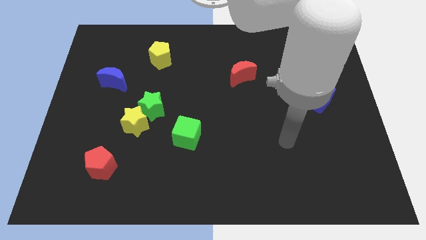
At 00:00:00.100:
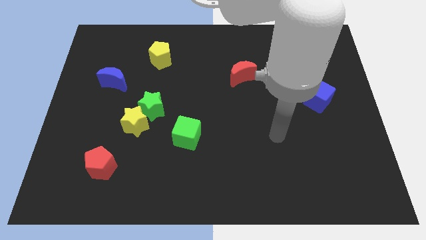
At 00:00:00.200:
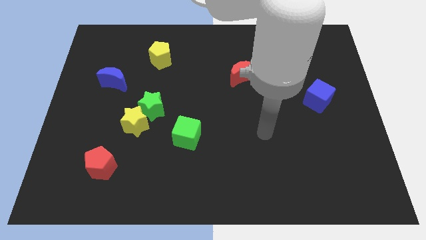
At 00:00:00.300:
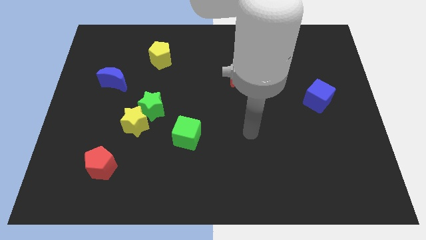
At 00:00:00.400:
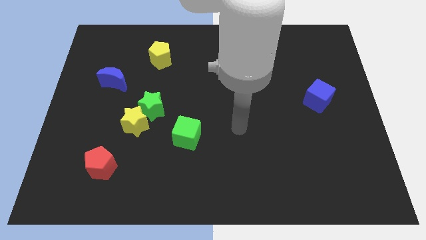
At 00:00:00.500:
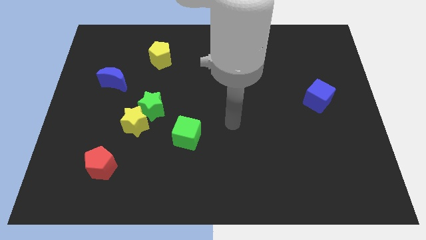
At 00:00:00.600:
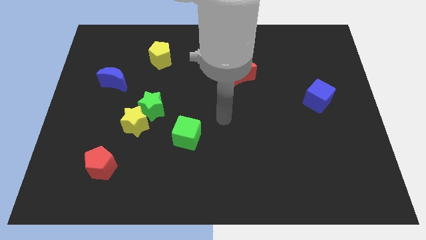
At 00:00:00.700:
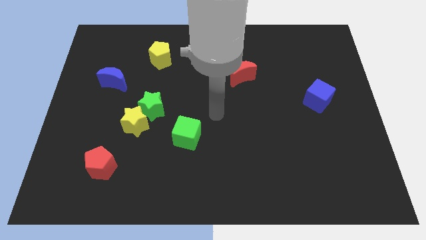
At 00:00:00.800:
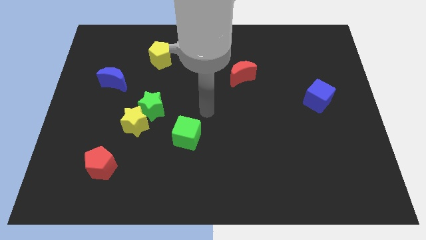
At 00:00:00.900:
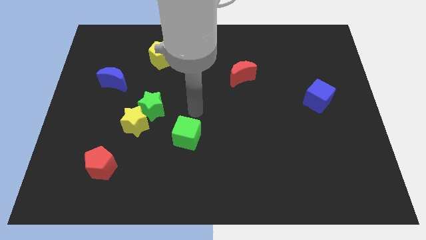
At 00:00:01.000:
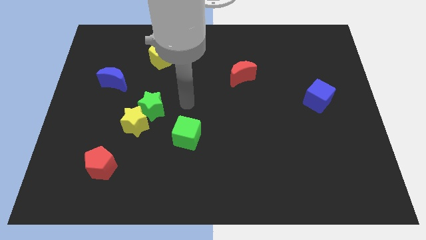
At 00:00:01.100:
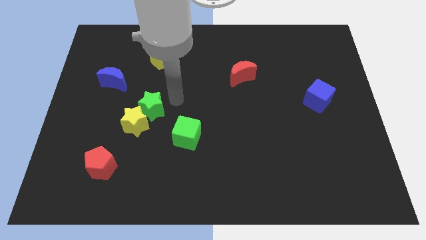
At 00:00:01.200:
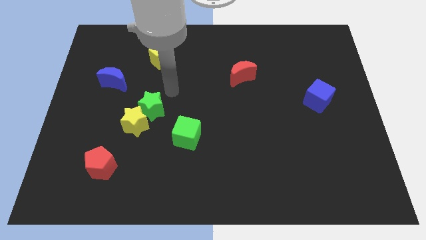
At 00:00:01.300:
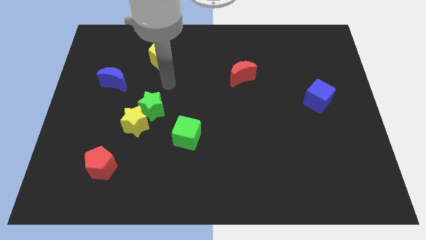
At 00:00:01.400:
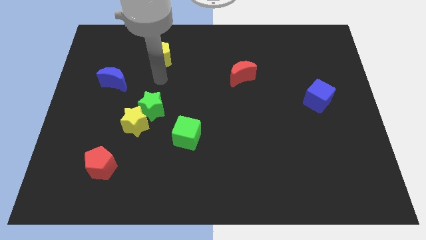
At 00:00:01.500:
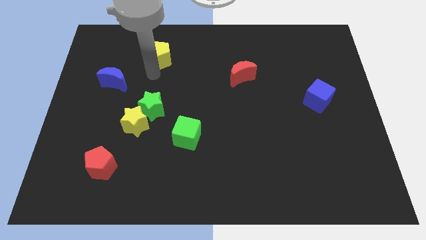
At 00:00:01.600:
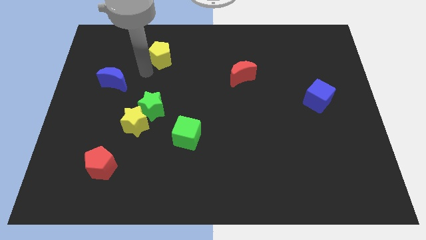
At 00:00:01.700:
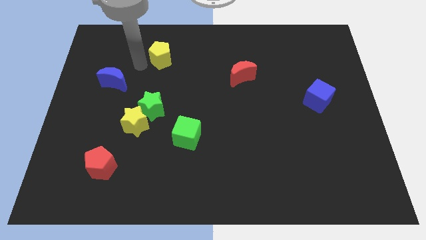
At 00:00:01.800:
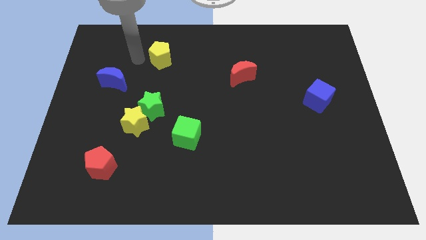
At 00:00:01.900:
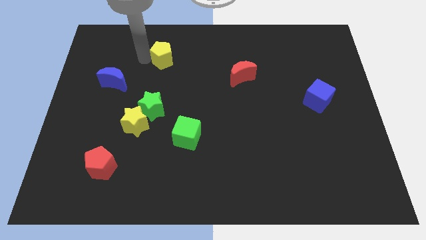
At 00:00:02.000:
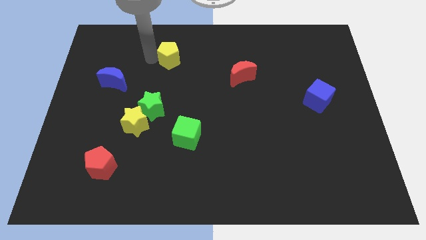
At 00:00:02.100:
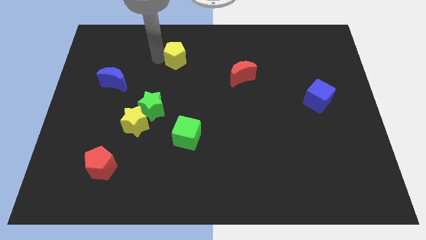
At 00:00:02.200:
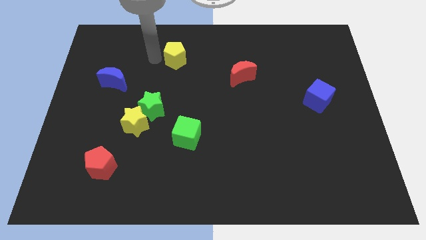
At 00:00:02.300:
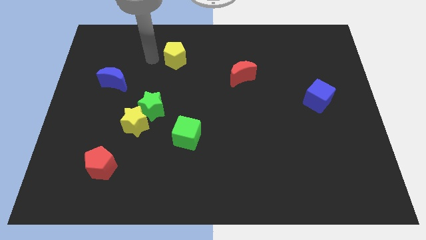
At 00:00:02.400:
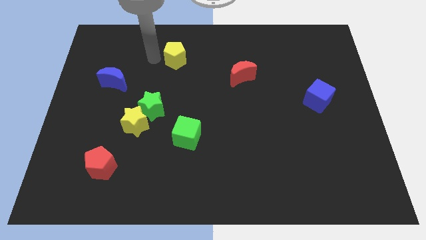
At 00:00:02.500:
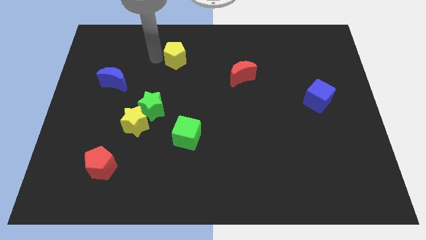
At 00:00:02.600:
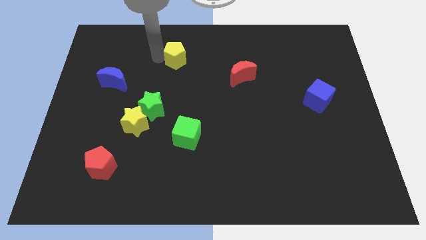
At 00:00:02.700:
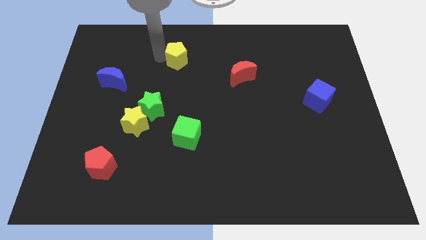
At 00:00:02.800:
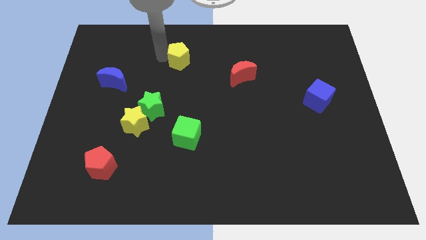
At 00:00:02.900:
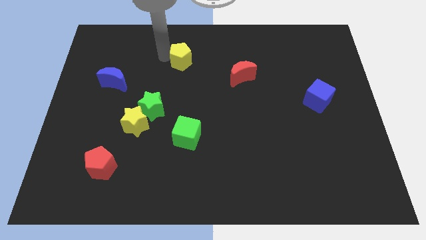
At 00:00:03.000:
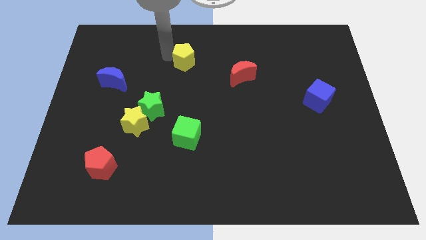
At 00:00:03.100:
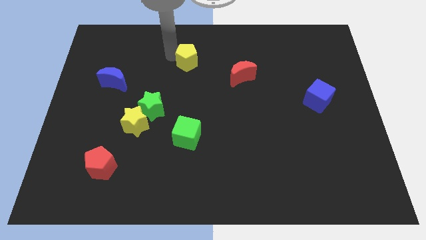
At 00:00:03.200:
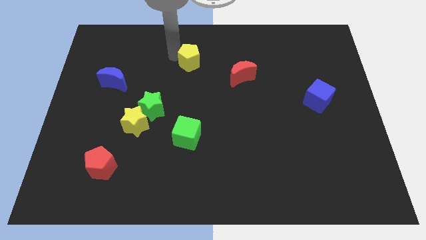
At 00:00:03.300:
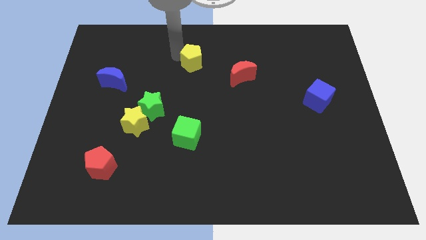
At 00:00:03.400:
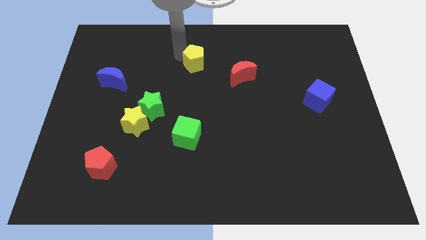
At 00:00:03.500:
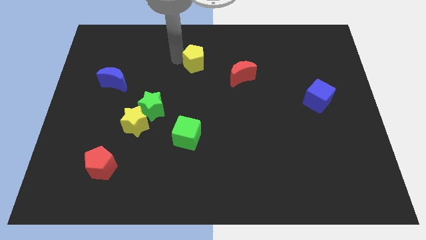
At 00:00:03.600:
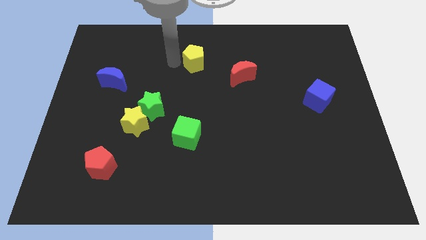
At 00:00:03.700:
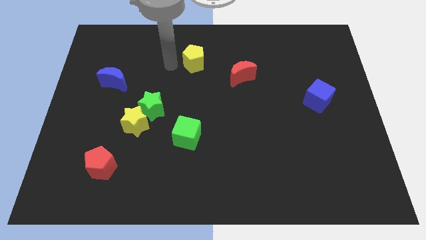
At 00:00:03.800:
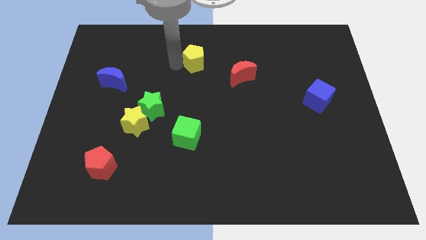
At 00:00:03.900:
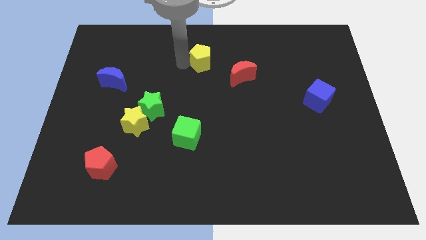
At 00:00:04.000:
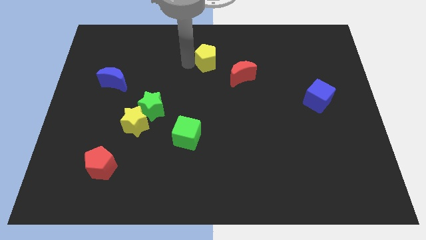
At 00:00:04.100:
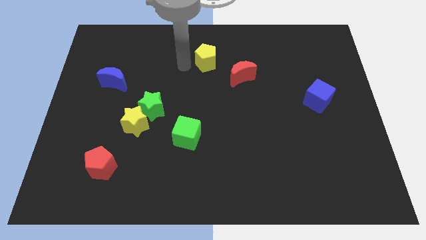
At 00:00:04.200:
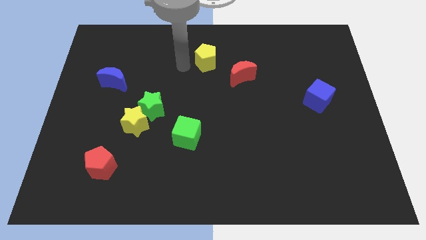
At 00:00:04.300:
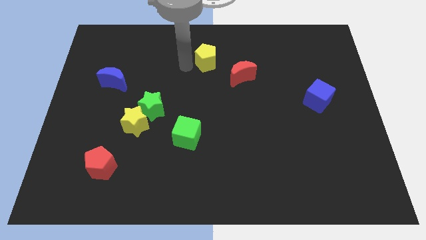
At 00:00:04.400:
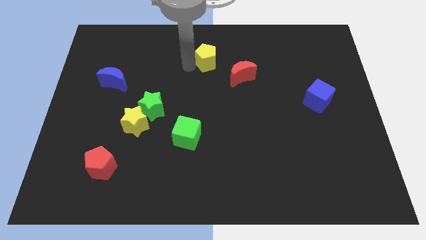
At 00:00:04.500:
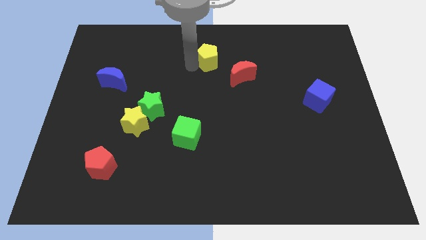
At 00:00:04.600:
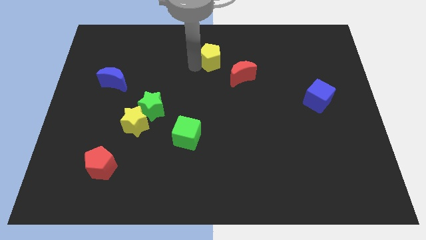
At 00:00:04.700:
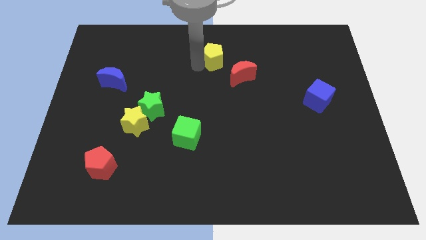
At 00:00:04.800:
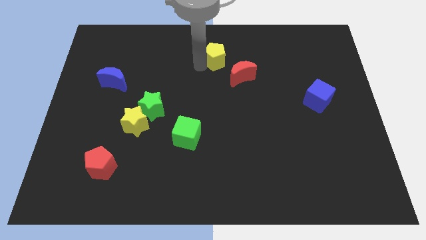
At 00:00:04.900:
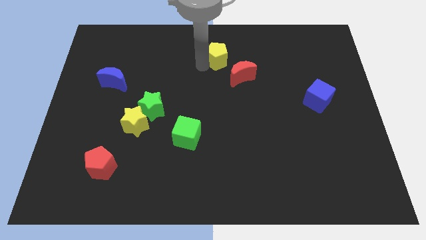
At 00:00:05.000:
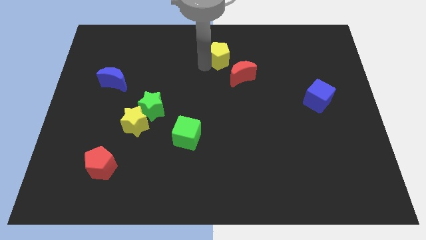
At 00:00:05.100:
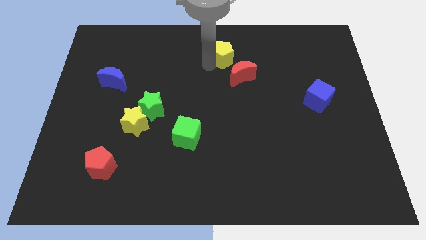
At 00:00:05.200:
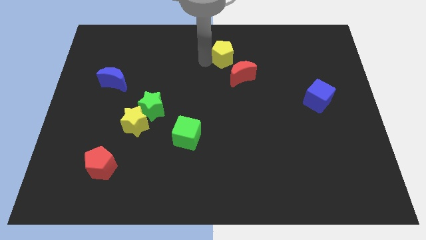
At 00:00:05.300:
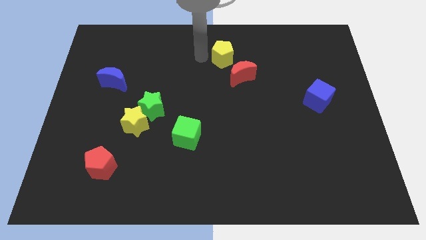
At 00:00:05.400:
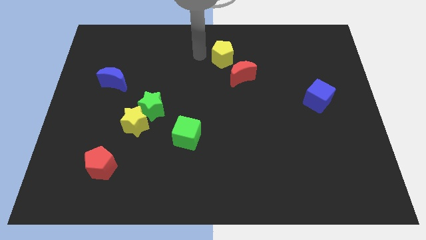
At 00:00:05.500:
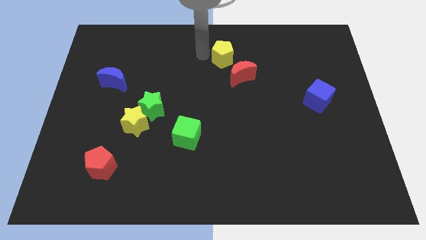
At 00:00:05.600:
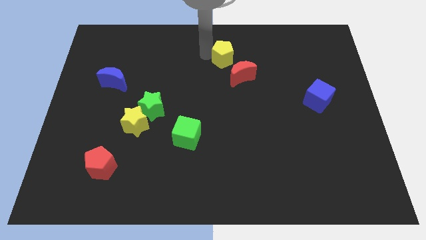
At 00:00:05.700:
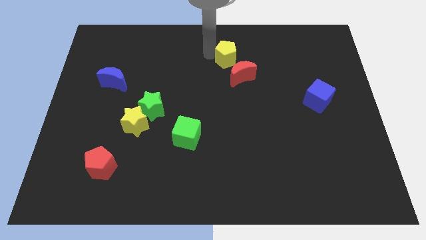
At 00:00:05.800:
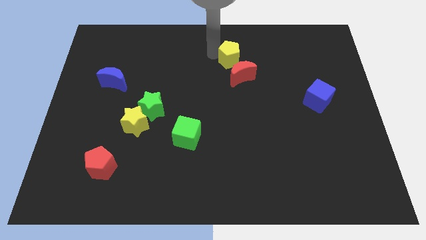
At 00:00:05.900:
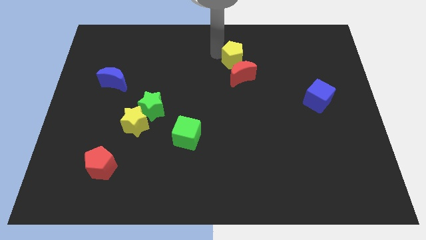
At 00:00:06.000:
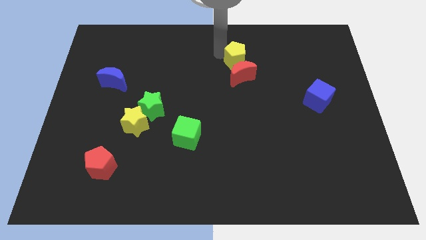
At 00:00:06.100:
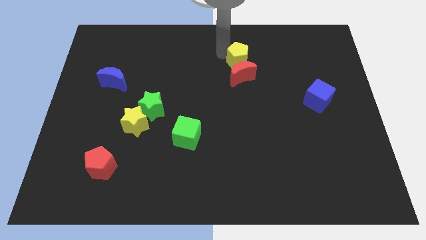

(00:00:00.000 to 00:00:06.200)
slide the yellow pentagon diagonally up and to the right of the red moon
